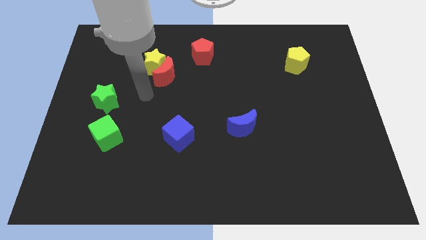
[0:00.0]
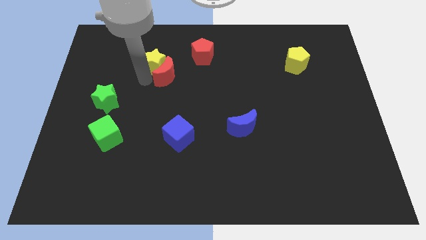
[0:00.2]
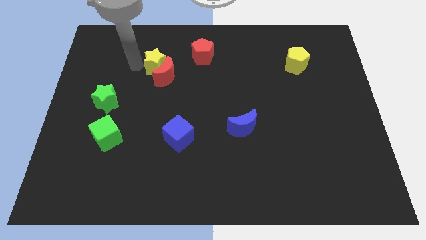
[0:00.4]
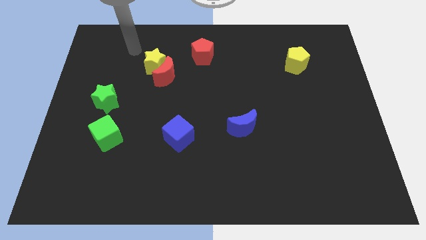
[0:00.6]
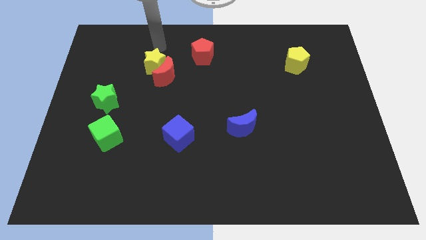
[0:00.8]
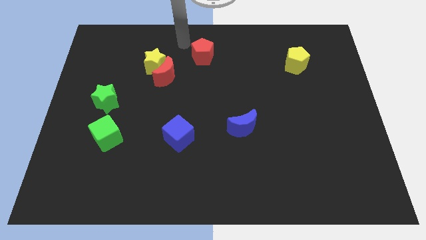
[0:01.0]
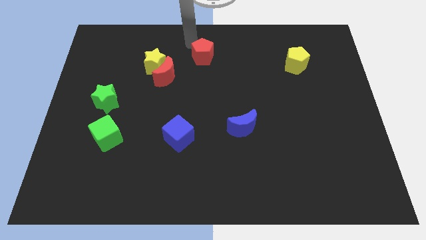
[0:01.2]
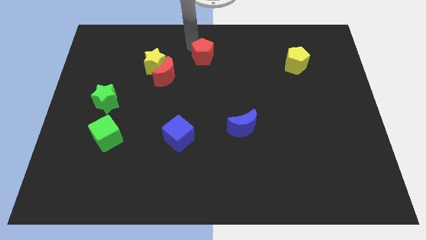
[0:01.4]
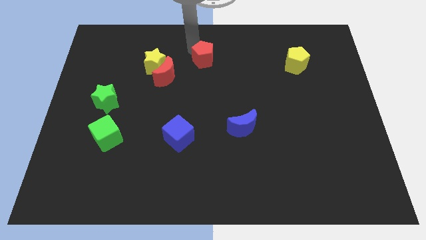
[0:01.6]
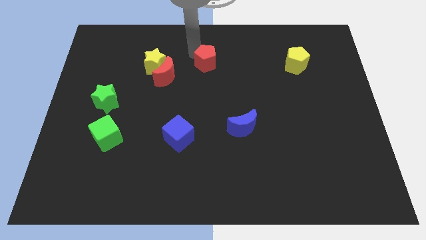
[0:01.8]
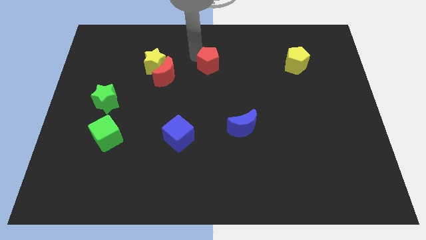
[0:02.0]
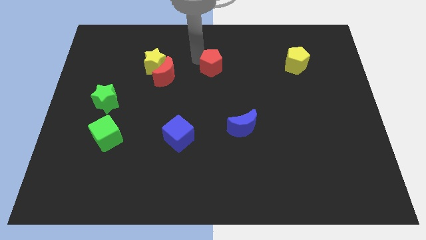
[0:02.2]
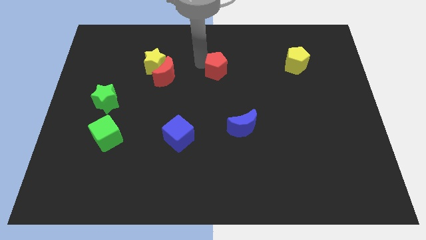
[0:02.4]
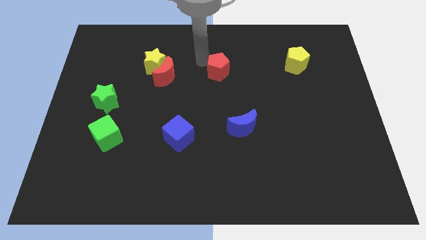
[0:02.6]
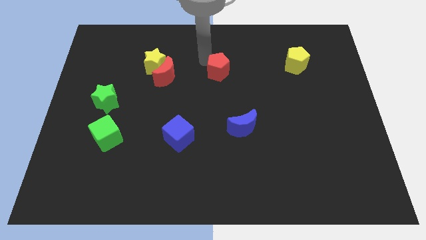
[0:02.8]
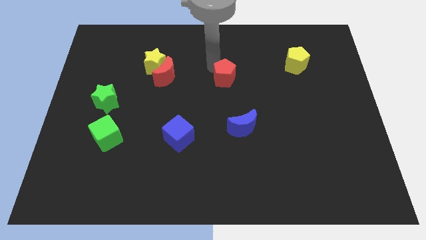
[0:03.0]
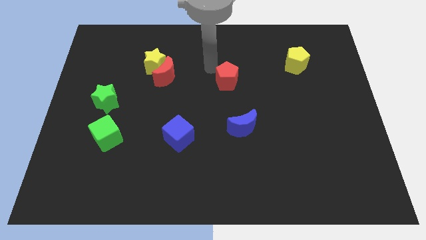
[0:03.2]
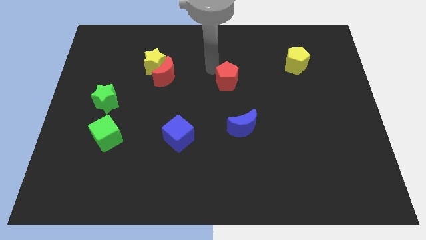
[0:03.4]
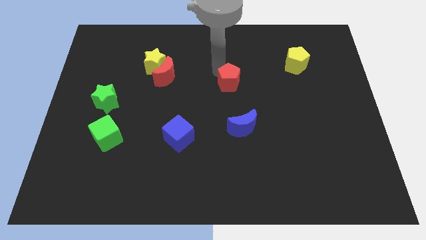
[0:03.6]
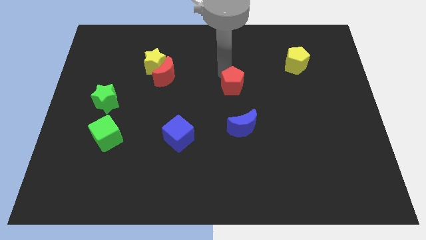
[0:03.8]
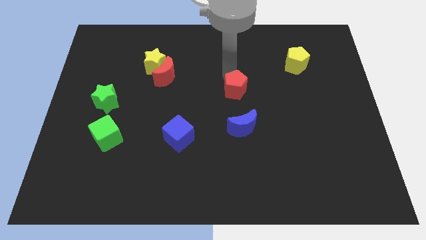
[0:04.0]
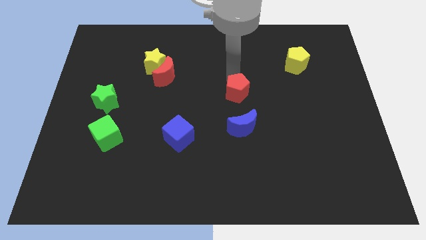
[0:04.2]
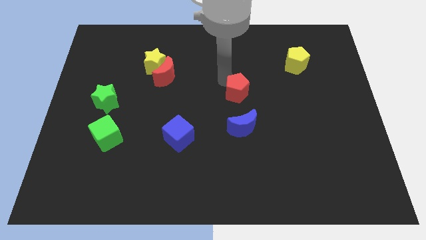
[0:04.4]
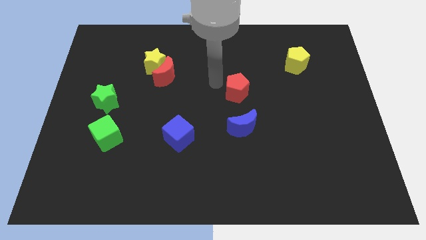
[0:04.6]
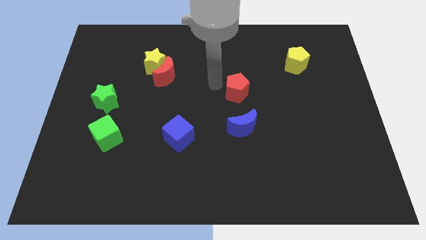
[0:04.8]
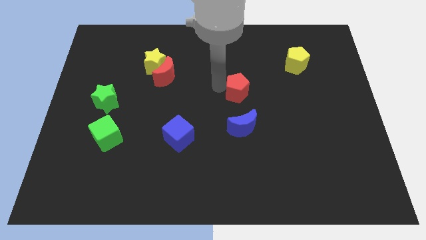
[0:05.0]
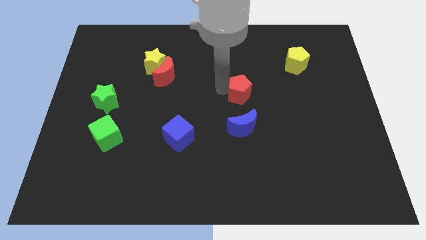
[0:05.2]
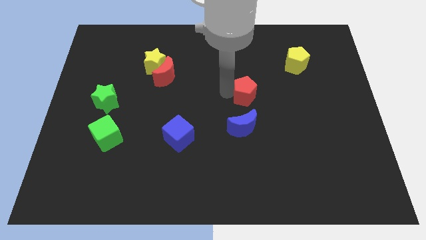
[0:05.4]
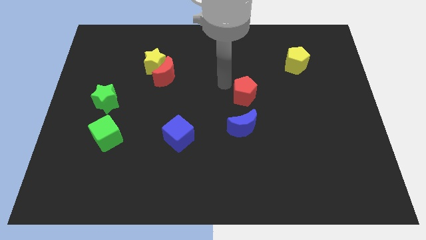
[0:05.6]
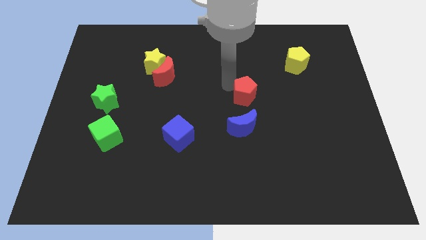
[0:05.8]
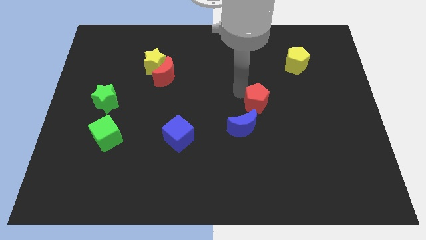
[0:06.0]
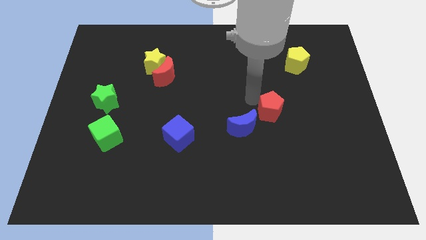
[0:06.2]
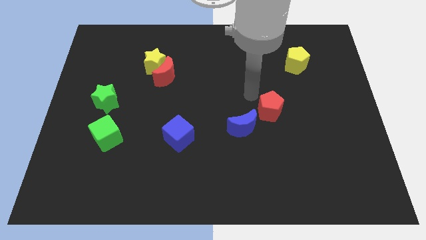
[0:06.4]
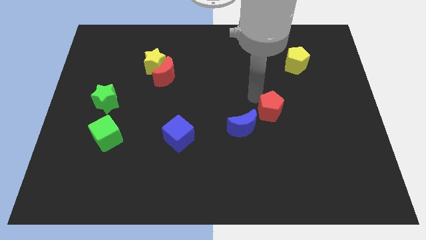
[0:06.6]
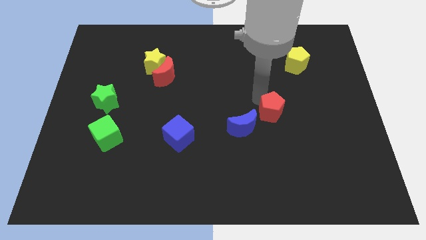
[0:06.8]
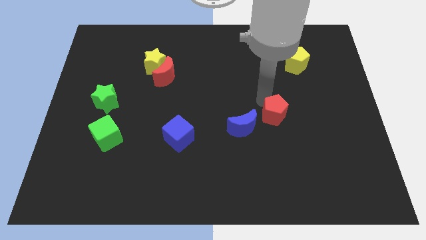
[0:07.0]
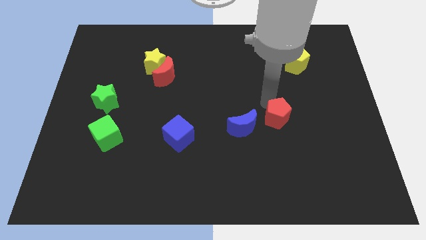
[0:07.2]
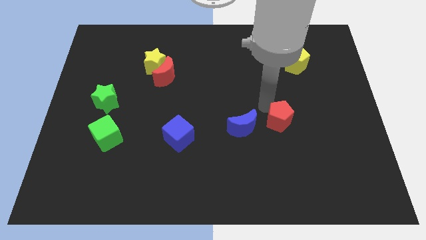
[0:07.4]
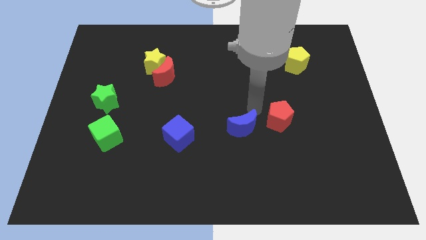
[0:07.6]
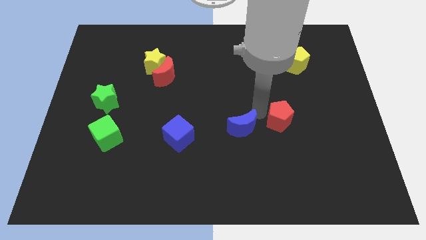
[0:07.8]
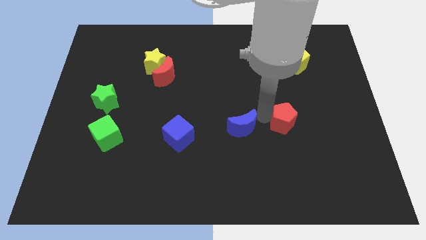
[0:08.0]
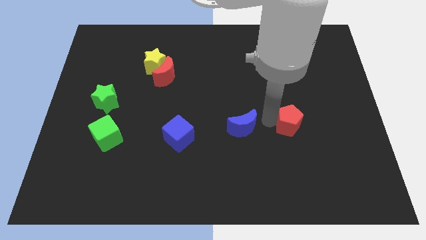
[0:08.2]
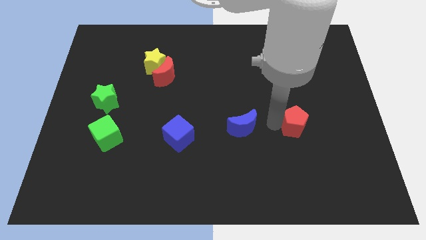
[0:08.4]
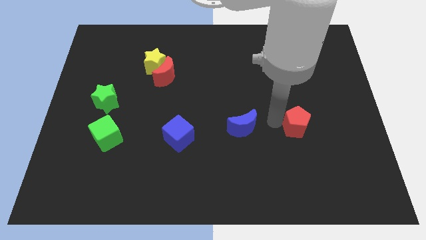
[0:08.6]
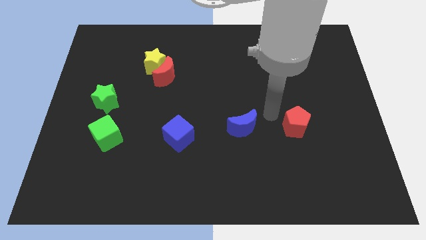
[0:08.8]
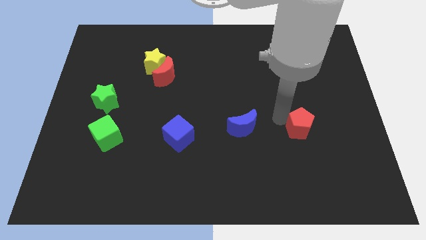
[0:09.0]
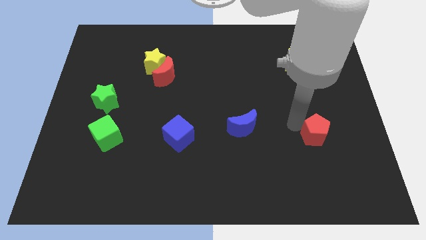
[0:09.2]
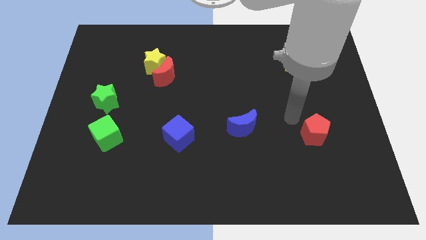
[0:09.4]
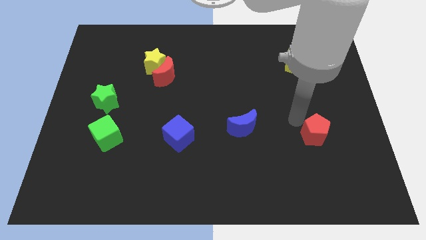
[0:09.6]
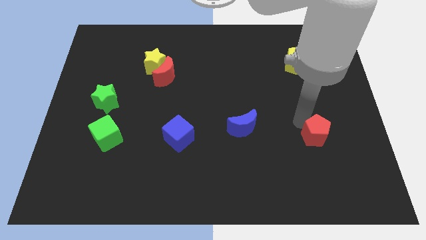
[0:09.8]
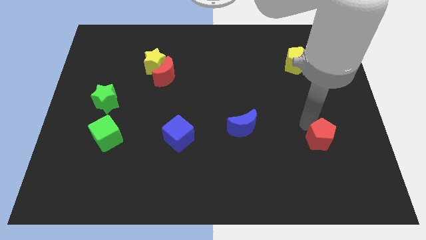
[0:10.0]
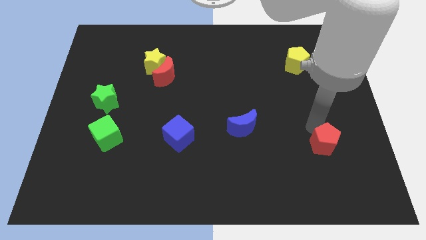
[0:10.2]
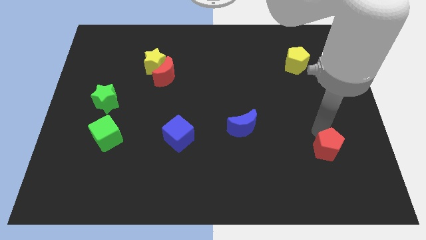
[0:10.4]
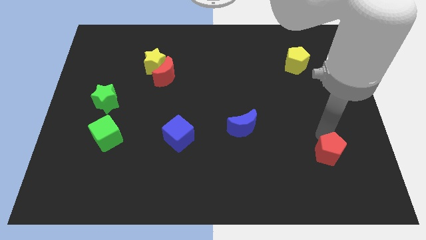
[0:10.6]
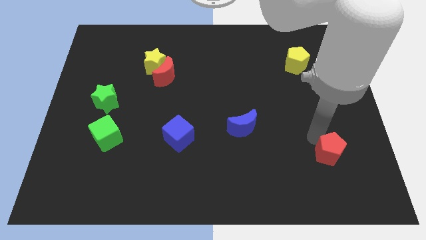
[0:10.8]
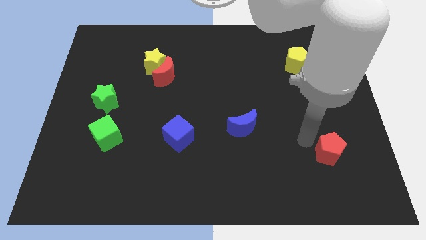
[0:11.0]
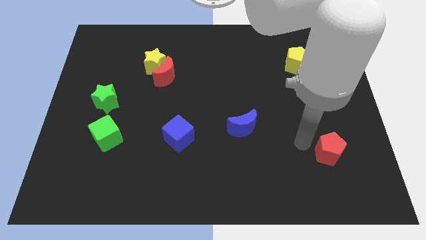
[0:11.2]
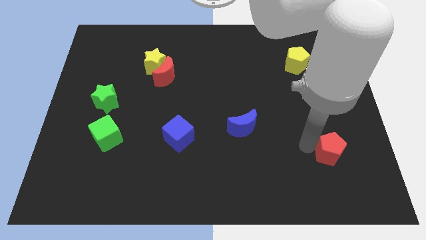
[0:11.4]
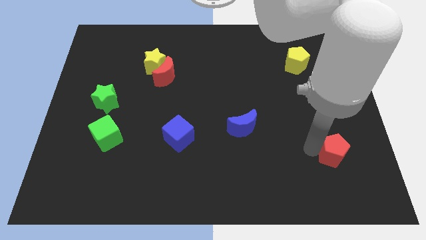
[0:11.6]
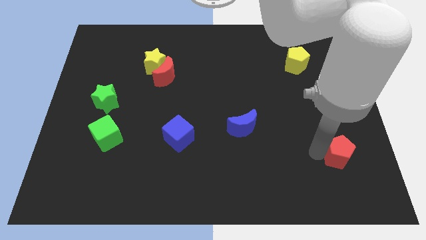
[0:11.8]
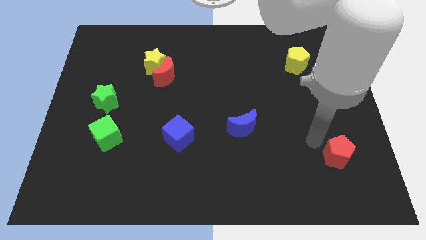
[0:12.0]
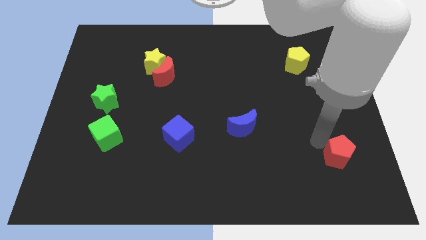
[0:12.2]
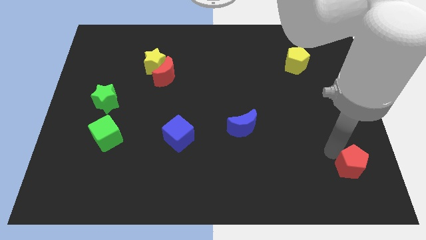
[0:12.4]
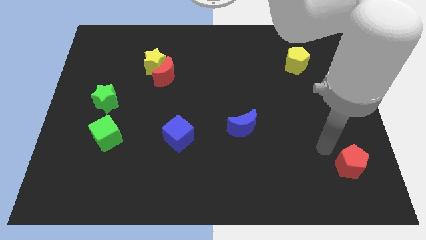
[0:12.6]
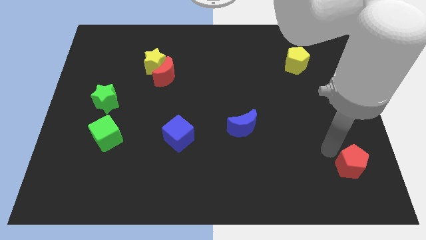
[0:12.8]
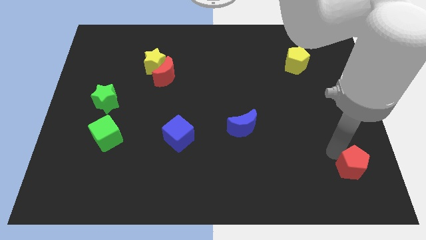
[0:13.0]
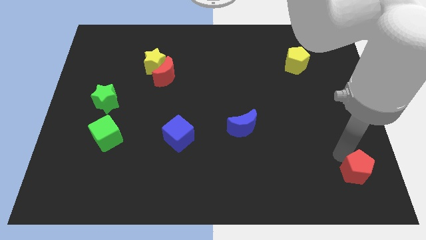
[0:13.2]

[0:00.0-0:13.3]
slide the red pentagon to the bottom right
